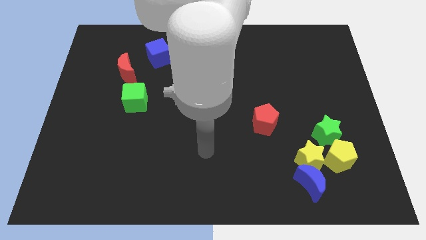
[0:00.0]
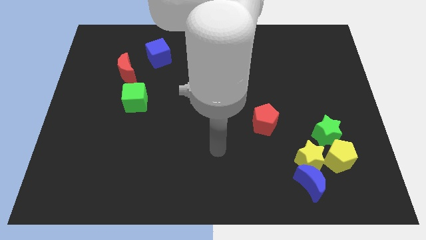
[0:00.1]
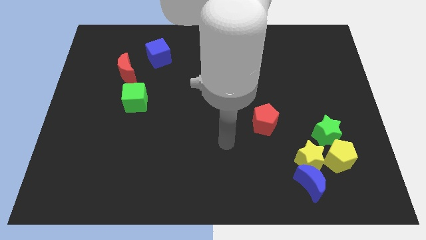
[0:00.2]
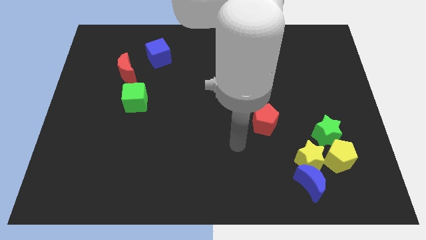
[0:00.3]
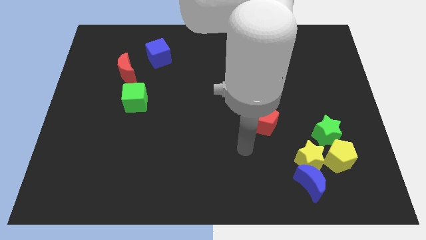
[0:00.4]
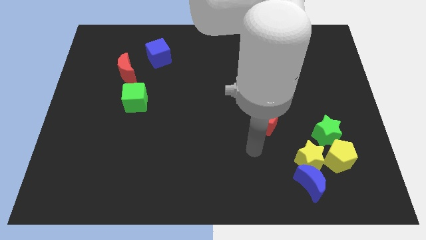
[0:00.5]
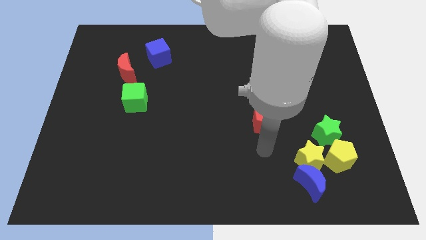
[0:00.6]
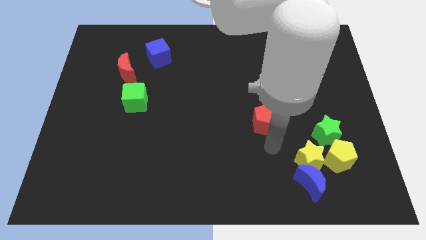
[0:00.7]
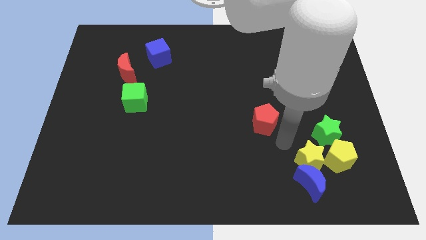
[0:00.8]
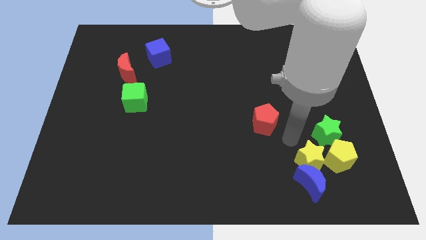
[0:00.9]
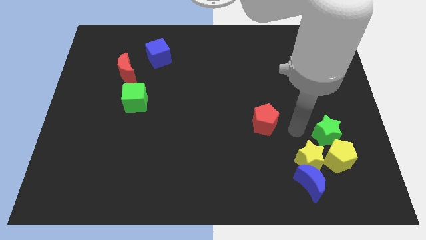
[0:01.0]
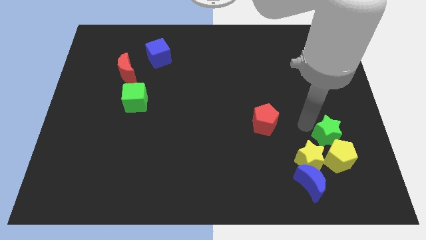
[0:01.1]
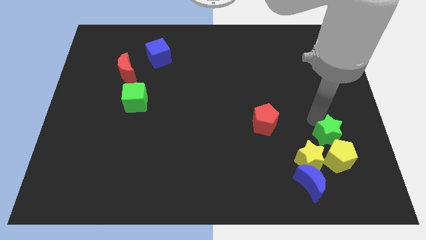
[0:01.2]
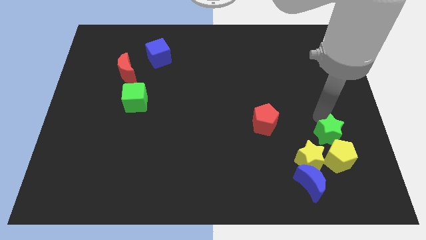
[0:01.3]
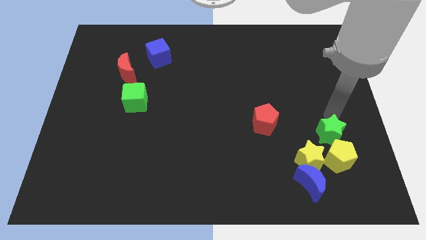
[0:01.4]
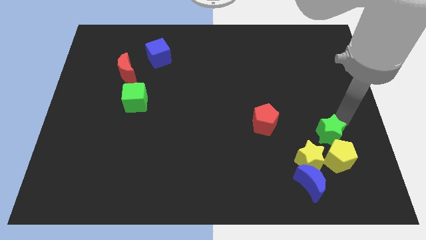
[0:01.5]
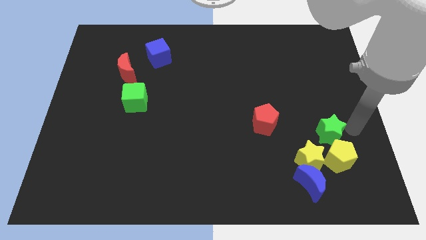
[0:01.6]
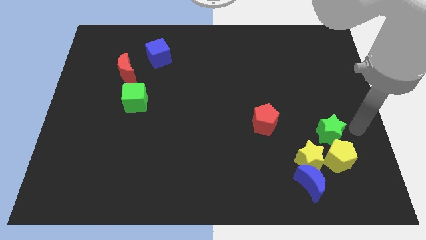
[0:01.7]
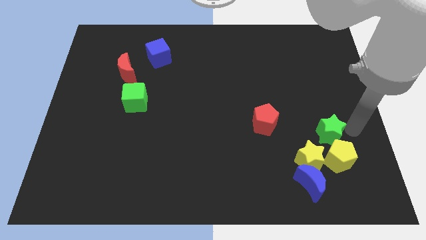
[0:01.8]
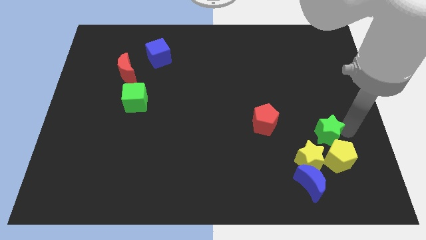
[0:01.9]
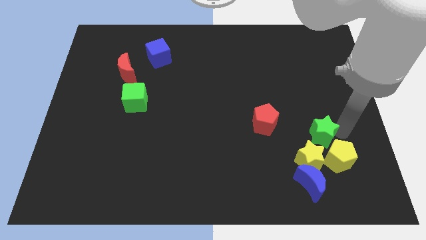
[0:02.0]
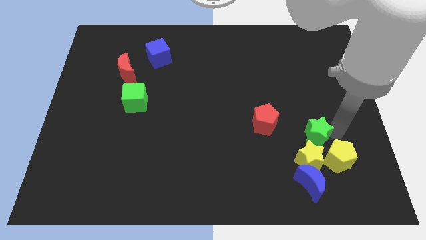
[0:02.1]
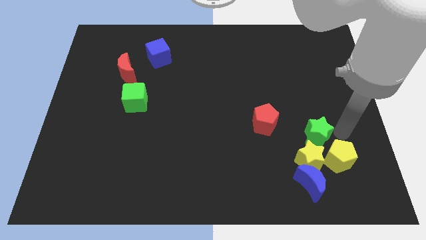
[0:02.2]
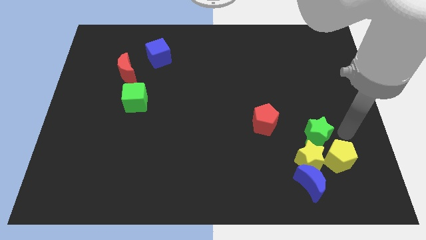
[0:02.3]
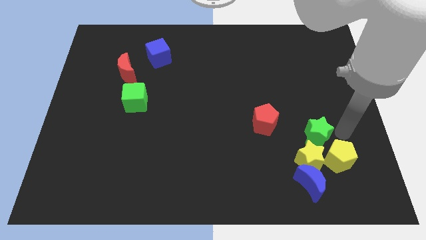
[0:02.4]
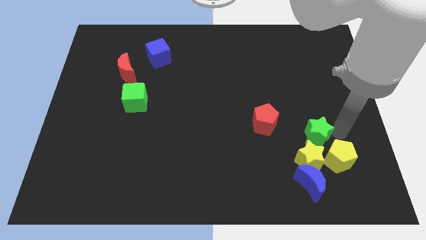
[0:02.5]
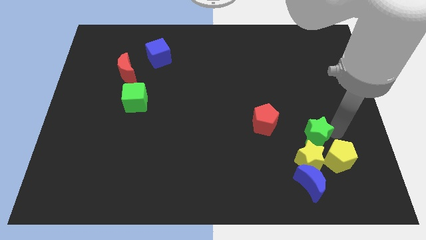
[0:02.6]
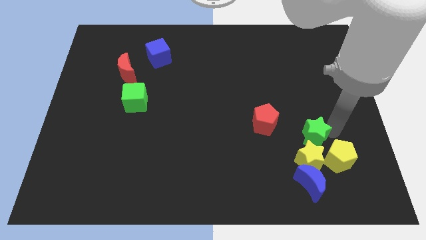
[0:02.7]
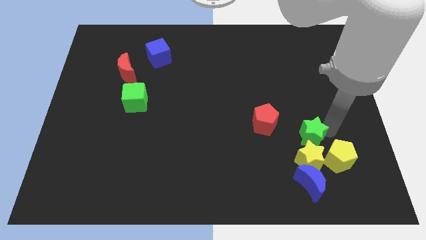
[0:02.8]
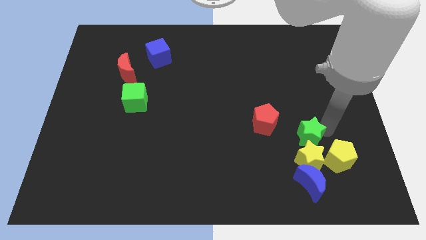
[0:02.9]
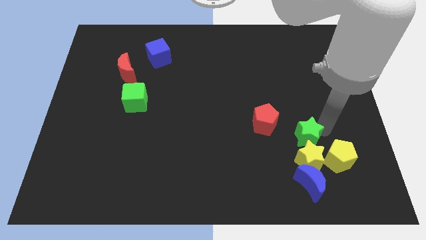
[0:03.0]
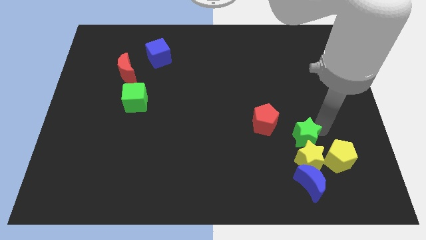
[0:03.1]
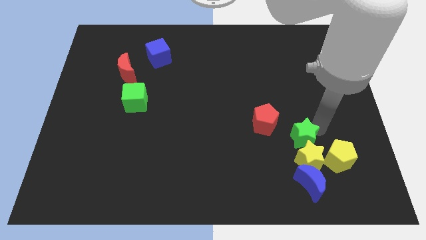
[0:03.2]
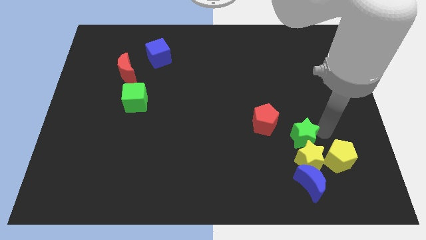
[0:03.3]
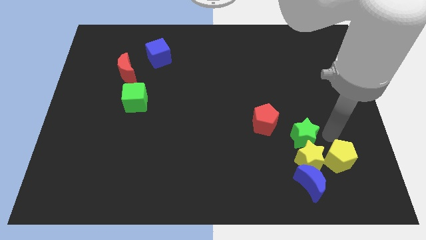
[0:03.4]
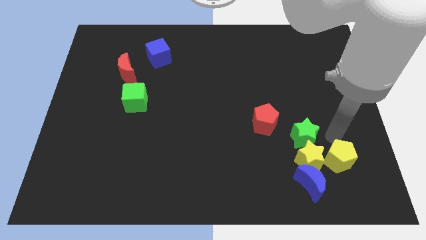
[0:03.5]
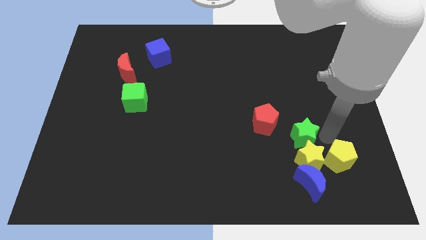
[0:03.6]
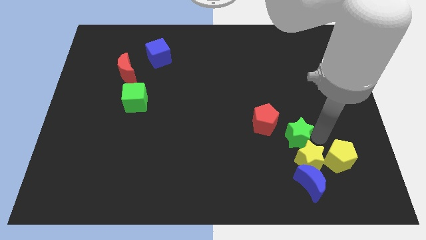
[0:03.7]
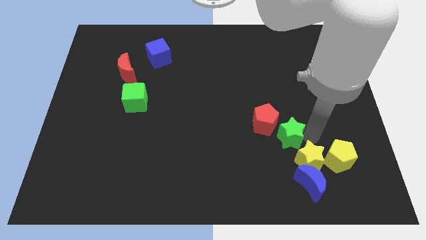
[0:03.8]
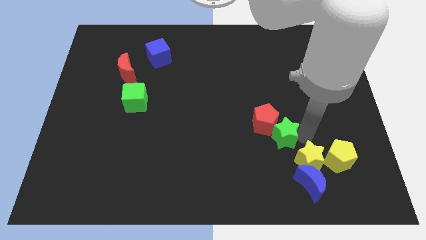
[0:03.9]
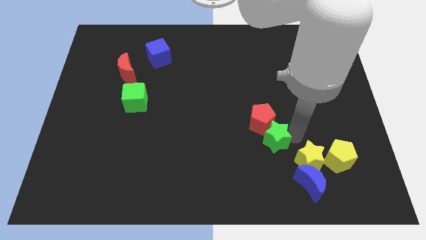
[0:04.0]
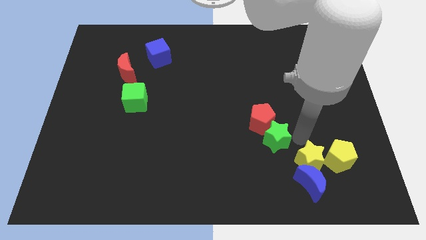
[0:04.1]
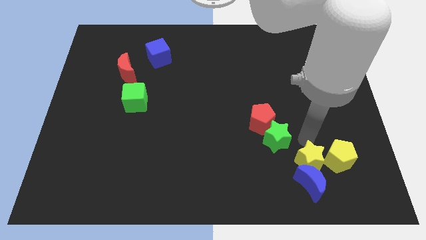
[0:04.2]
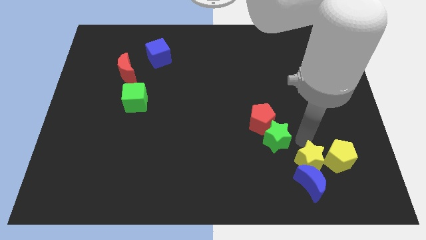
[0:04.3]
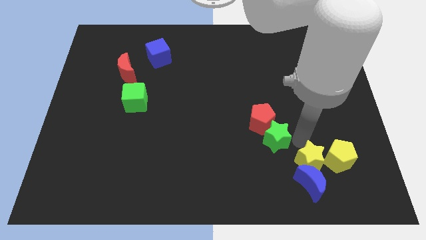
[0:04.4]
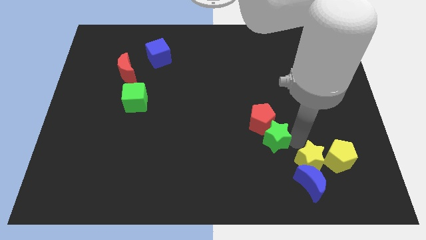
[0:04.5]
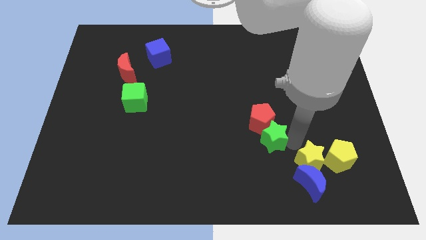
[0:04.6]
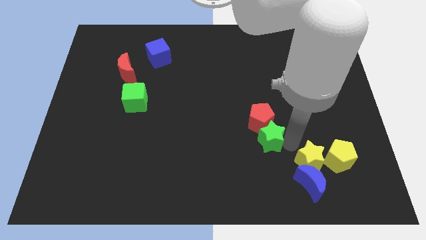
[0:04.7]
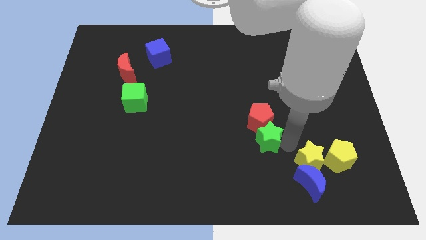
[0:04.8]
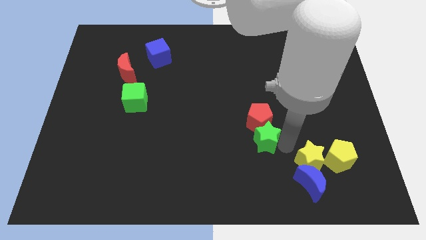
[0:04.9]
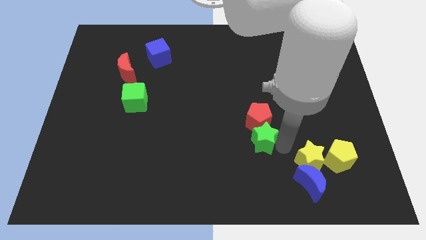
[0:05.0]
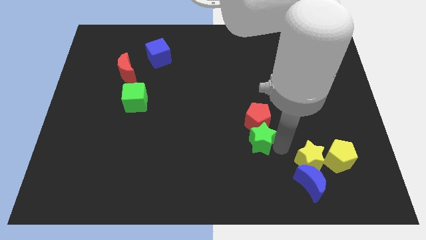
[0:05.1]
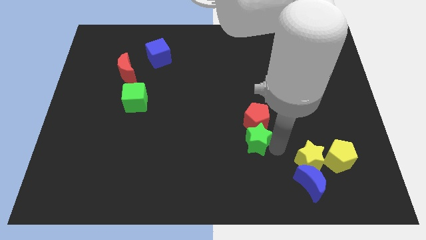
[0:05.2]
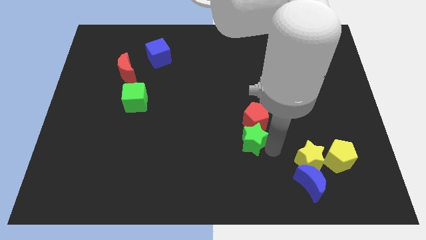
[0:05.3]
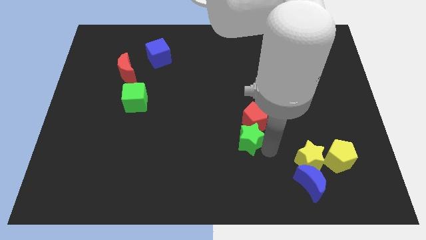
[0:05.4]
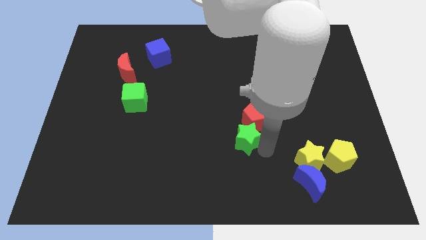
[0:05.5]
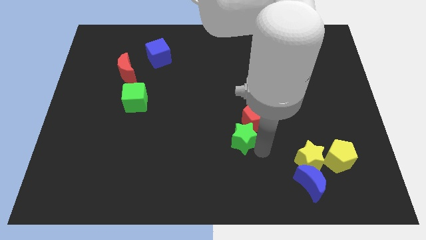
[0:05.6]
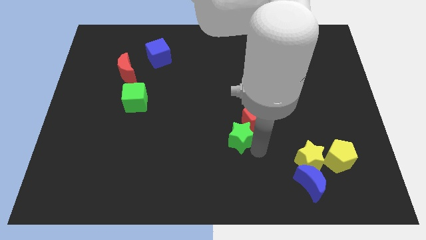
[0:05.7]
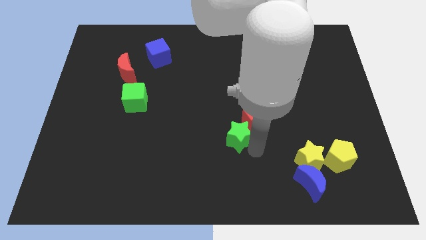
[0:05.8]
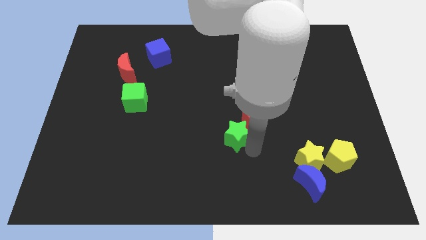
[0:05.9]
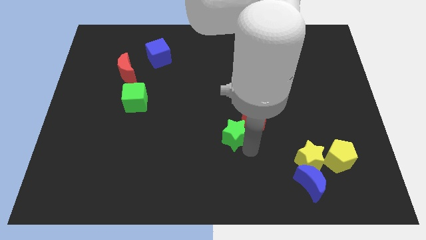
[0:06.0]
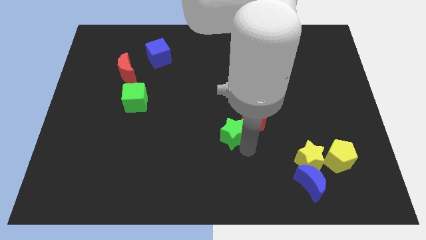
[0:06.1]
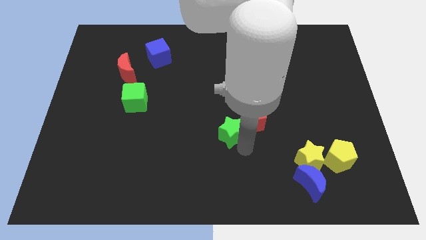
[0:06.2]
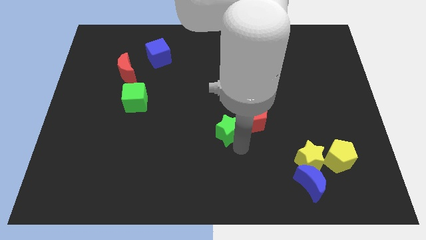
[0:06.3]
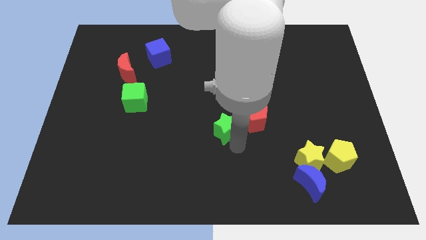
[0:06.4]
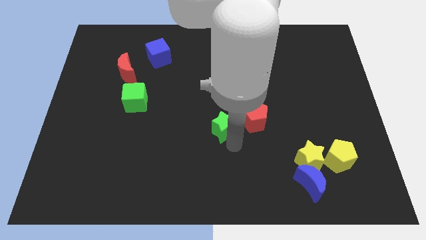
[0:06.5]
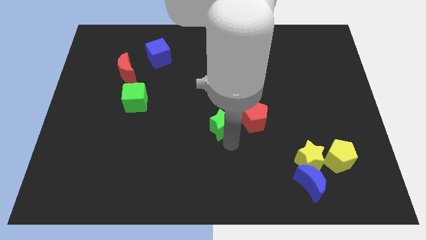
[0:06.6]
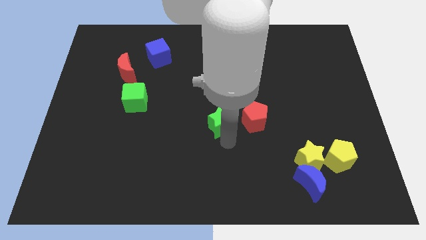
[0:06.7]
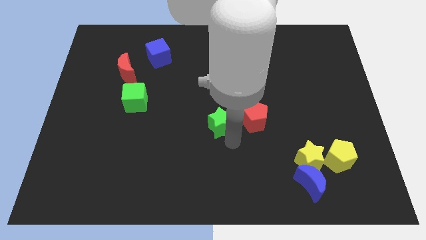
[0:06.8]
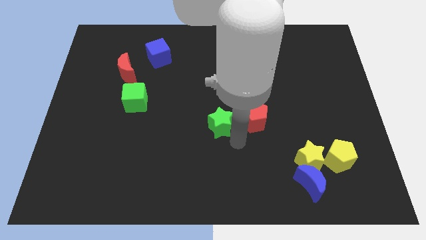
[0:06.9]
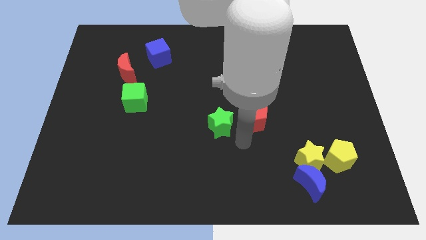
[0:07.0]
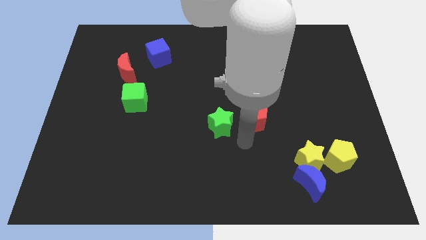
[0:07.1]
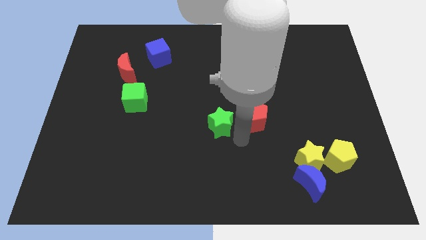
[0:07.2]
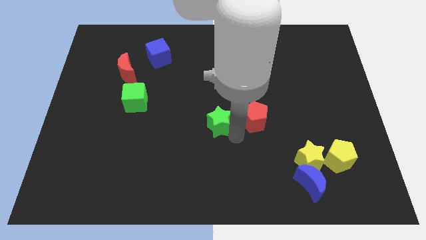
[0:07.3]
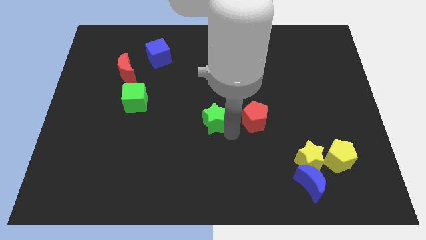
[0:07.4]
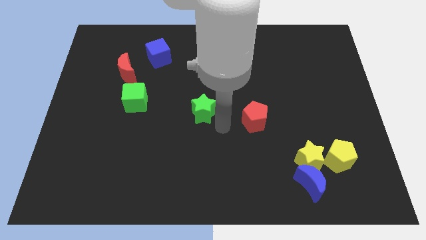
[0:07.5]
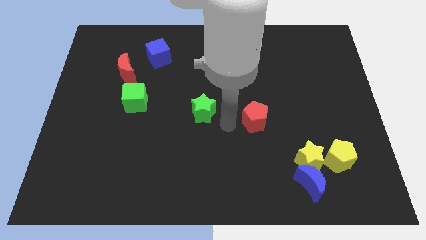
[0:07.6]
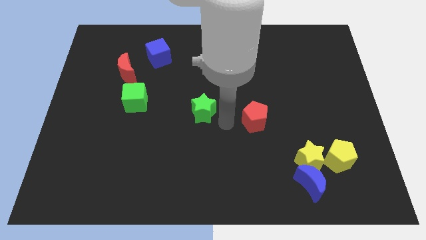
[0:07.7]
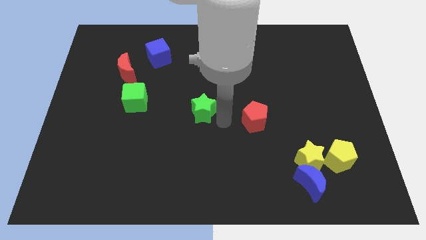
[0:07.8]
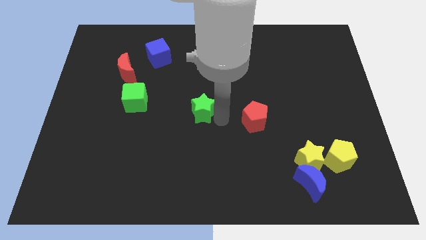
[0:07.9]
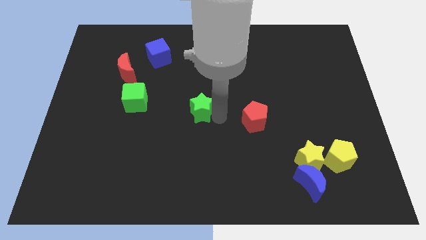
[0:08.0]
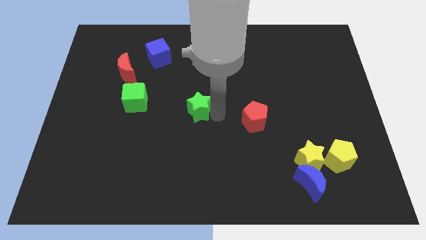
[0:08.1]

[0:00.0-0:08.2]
push the green star to the right of the green cube
